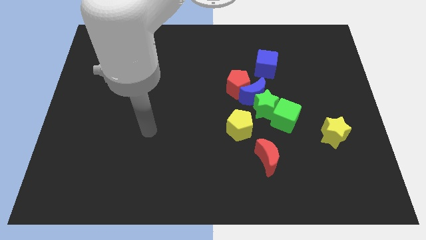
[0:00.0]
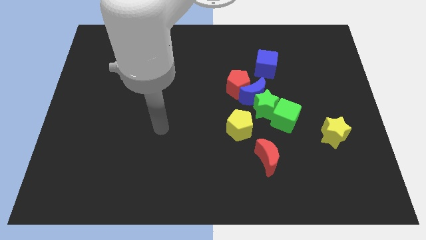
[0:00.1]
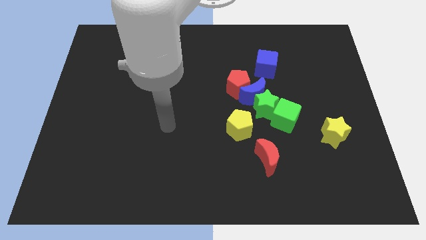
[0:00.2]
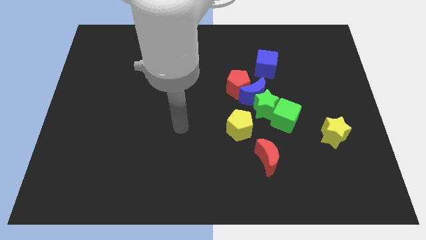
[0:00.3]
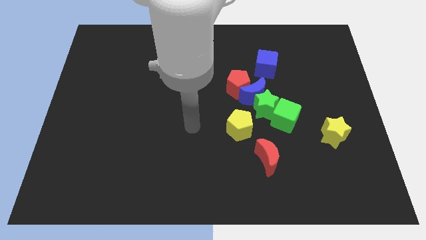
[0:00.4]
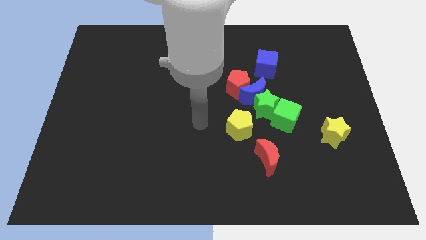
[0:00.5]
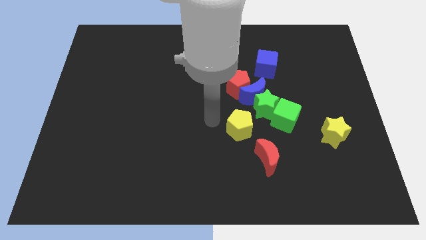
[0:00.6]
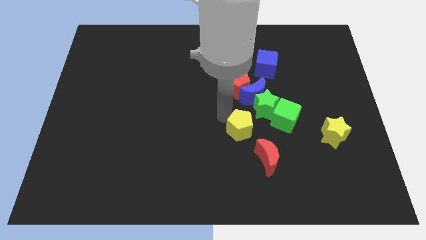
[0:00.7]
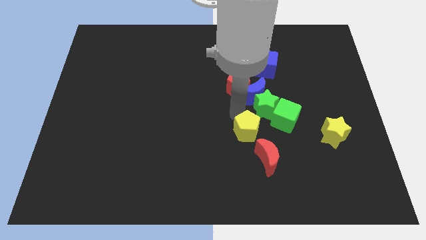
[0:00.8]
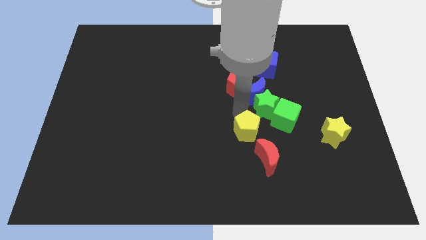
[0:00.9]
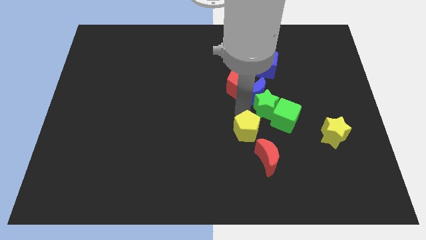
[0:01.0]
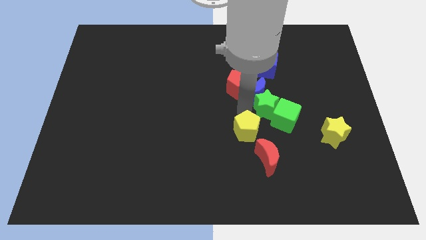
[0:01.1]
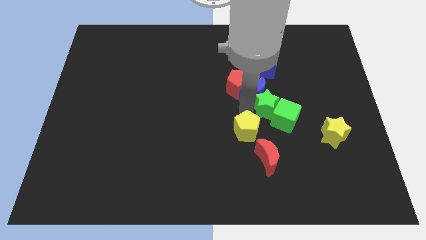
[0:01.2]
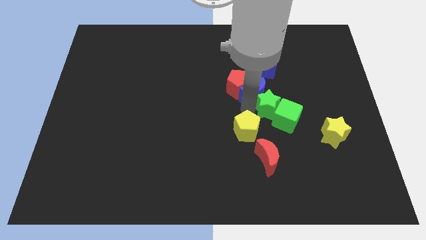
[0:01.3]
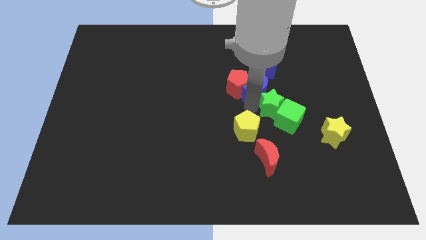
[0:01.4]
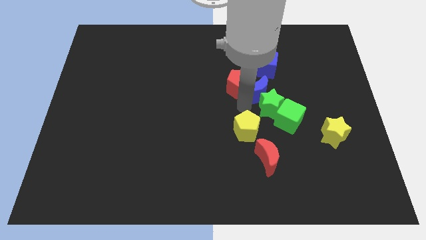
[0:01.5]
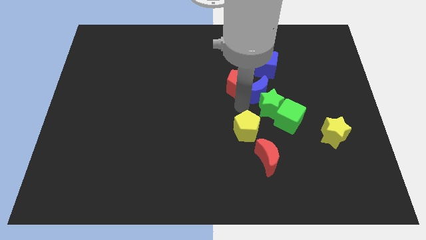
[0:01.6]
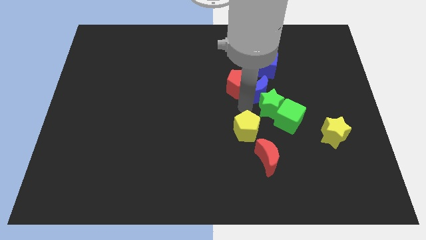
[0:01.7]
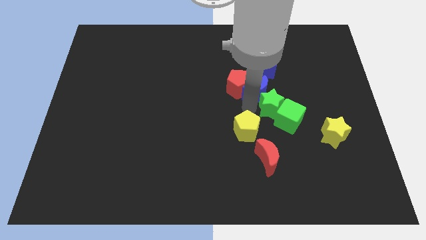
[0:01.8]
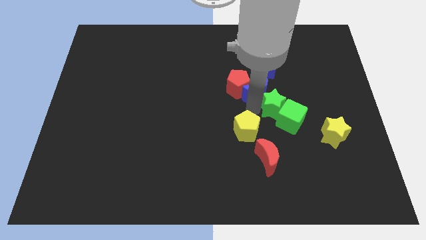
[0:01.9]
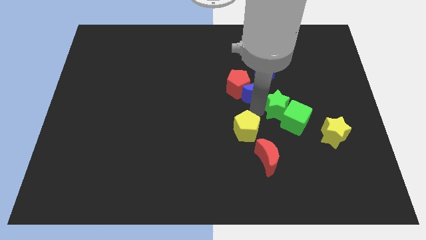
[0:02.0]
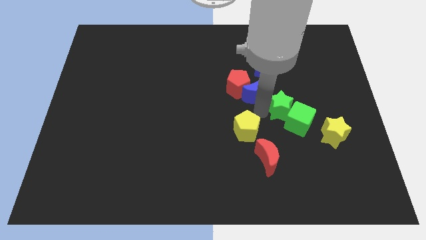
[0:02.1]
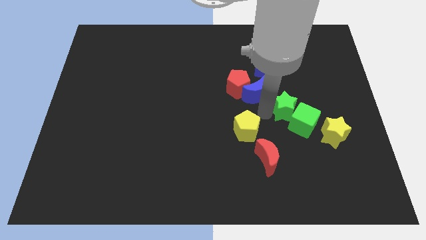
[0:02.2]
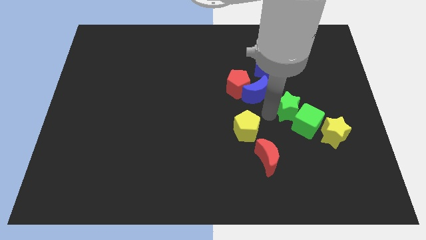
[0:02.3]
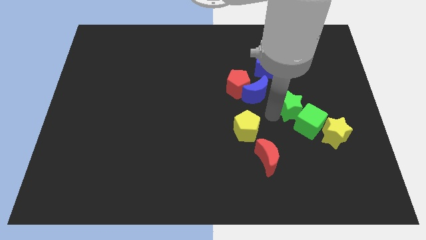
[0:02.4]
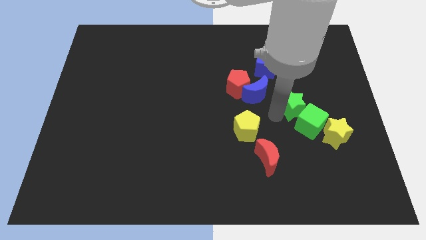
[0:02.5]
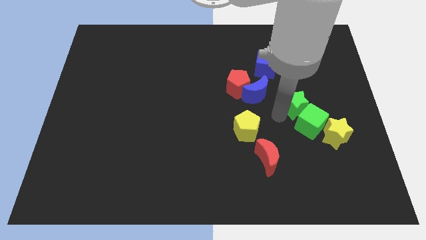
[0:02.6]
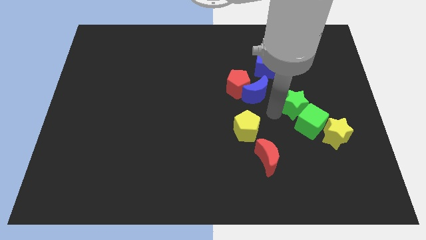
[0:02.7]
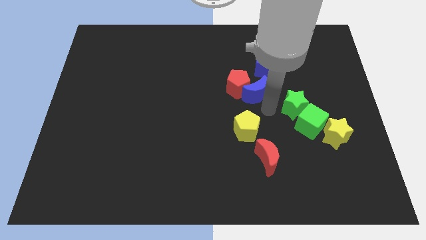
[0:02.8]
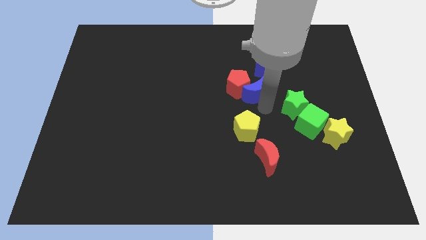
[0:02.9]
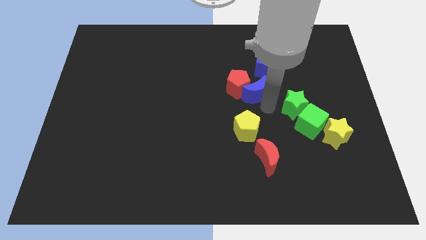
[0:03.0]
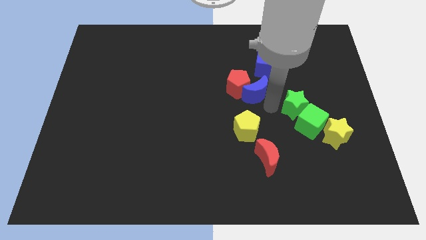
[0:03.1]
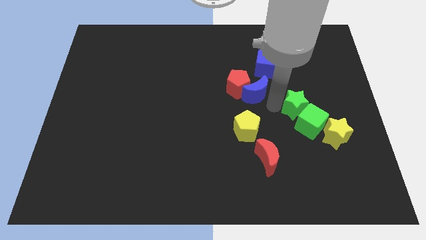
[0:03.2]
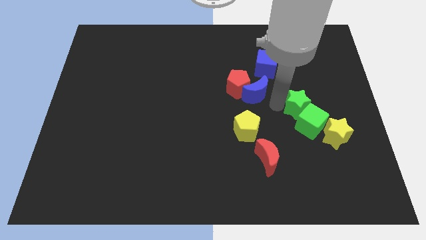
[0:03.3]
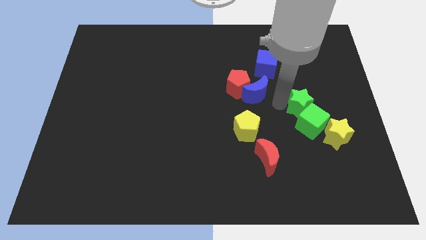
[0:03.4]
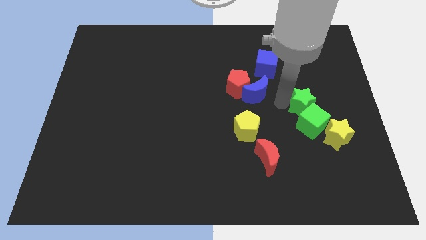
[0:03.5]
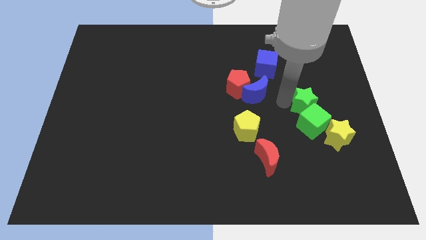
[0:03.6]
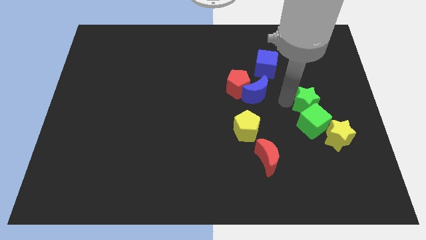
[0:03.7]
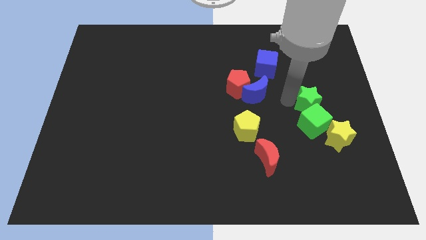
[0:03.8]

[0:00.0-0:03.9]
move the green star away from the clump

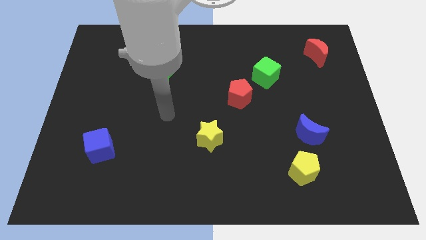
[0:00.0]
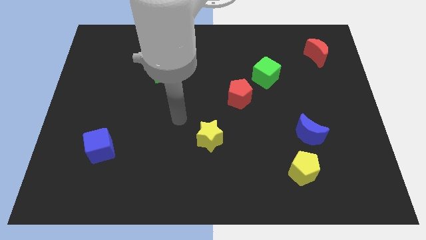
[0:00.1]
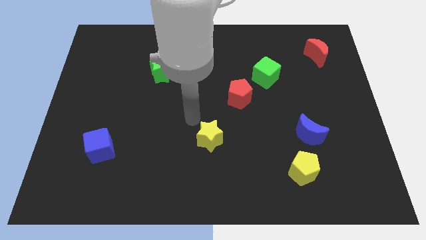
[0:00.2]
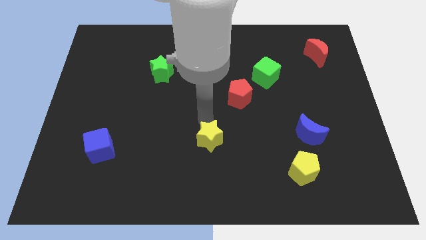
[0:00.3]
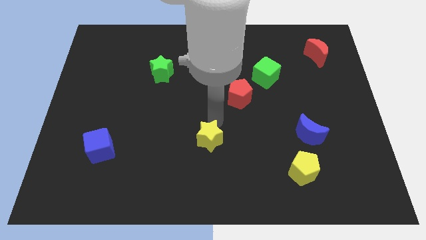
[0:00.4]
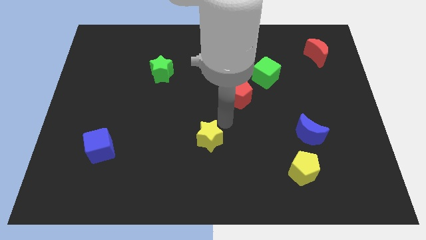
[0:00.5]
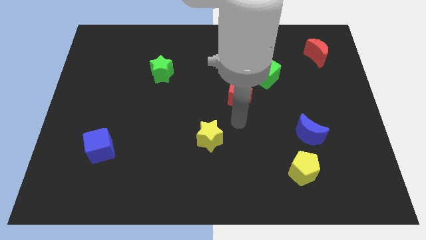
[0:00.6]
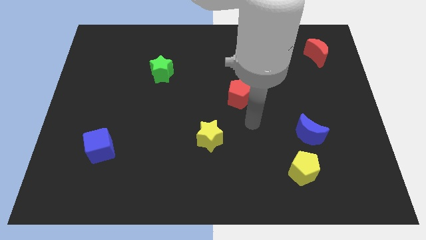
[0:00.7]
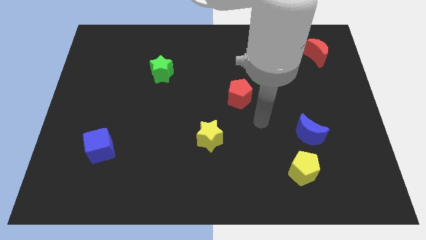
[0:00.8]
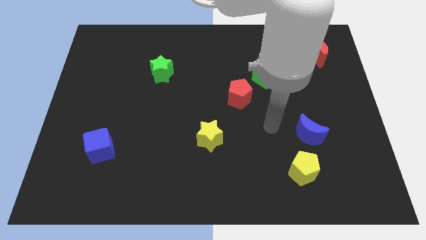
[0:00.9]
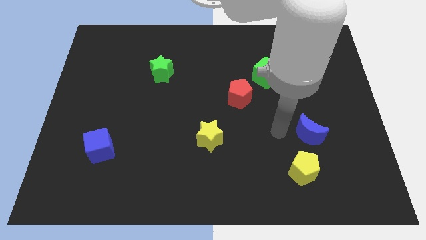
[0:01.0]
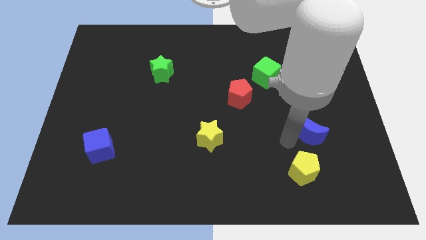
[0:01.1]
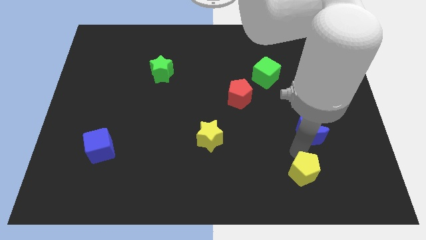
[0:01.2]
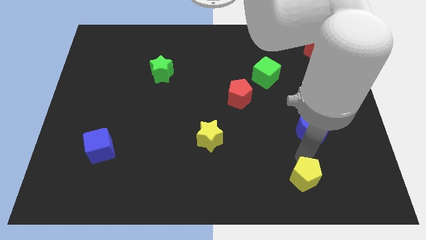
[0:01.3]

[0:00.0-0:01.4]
pull the blue moon apart from the yellow pentagon

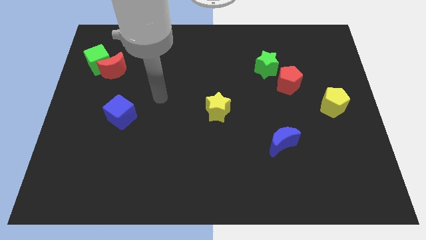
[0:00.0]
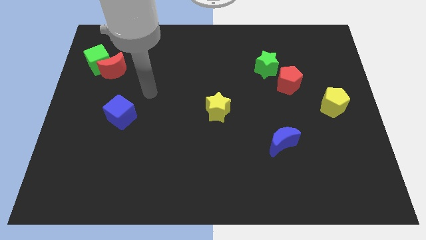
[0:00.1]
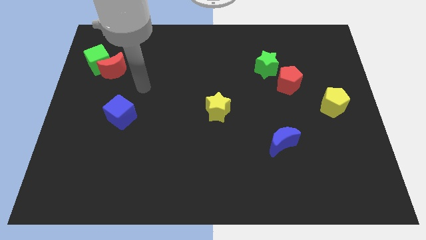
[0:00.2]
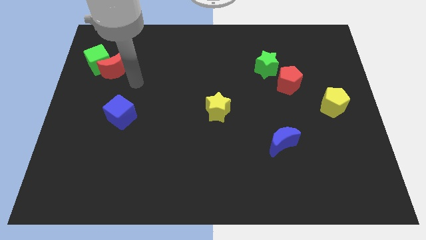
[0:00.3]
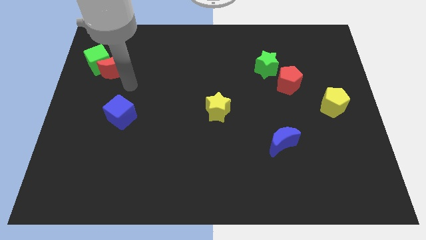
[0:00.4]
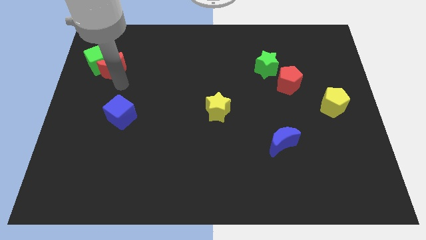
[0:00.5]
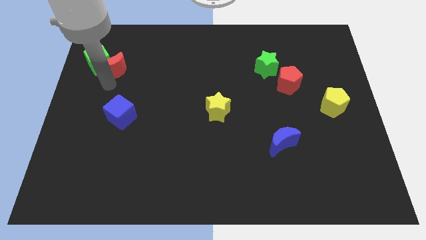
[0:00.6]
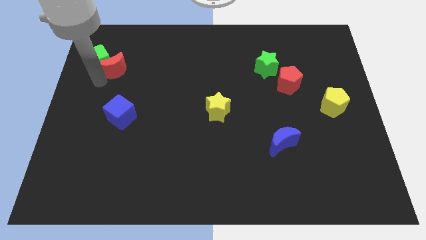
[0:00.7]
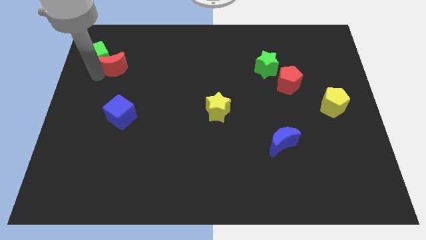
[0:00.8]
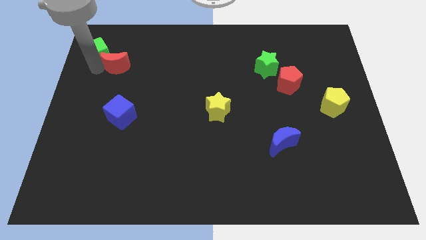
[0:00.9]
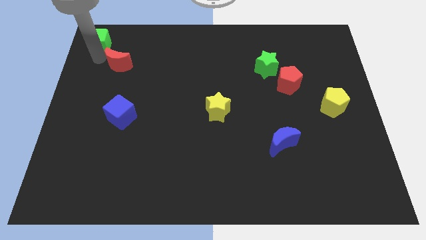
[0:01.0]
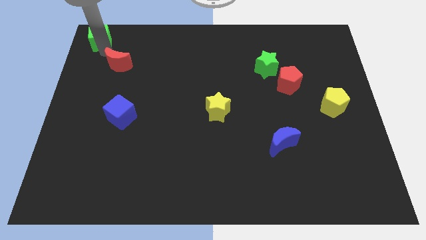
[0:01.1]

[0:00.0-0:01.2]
move the red moon away from the green cube

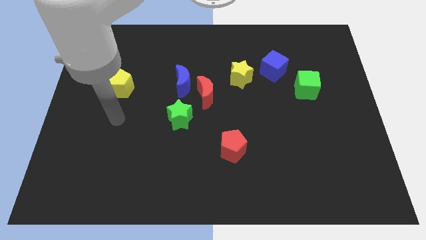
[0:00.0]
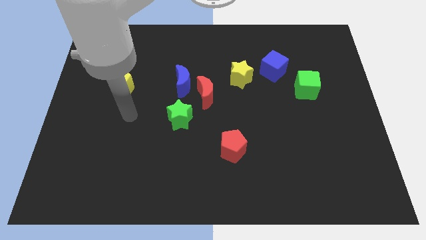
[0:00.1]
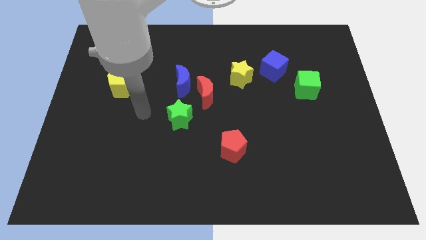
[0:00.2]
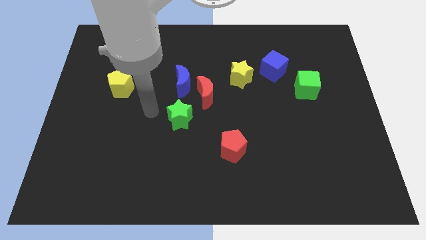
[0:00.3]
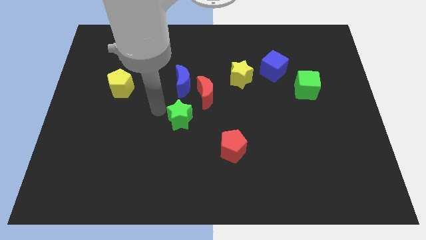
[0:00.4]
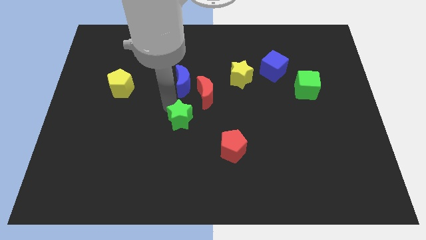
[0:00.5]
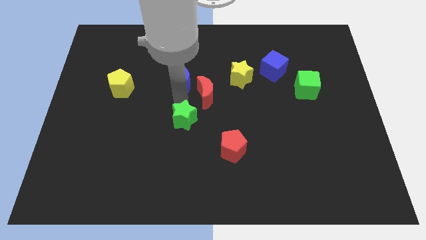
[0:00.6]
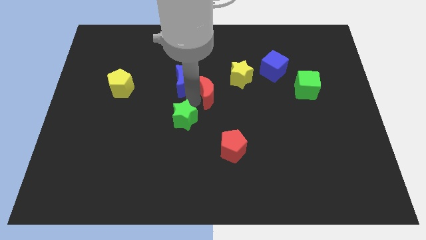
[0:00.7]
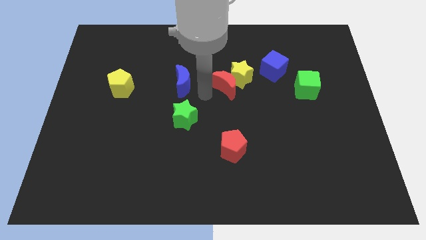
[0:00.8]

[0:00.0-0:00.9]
move the blue moon away from the red moon

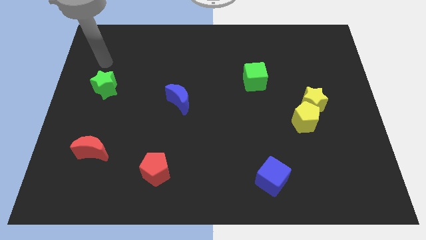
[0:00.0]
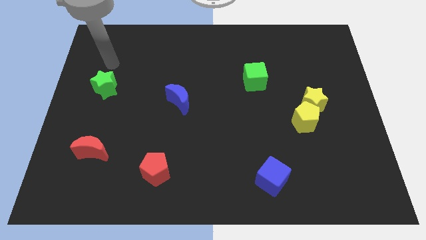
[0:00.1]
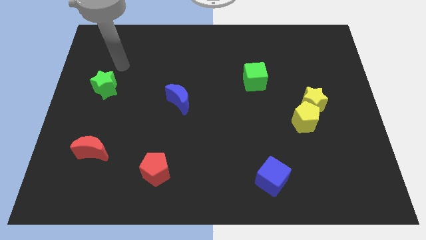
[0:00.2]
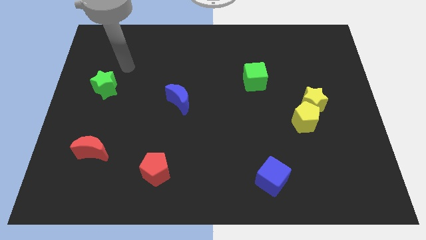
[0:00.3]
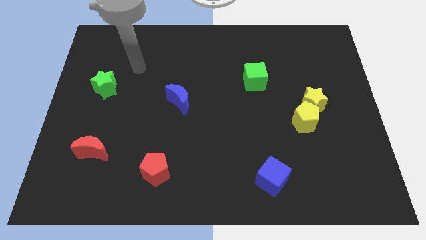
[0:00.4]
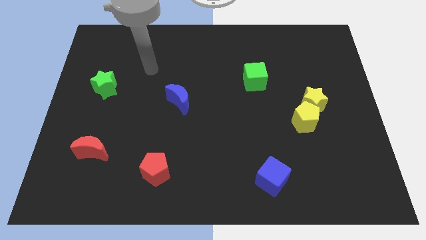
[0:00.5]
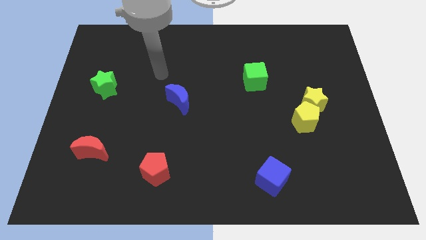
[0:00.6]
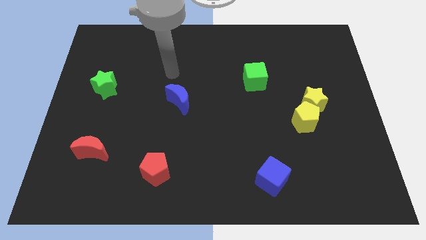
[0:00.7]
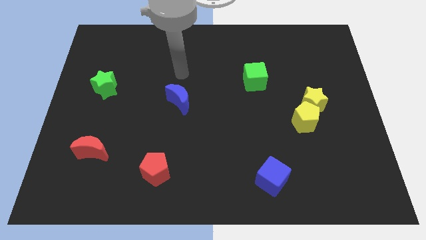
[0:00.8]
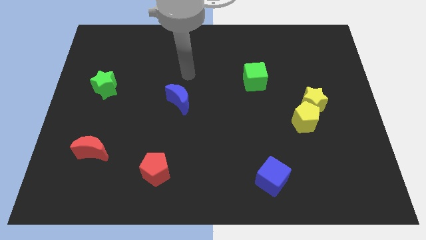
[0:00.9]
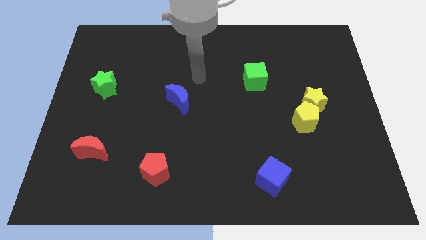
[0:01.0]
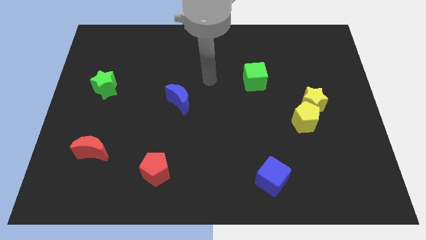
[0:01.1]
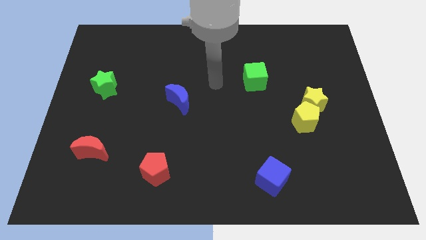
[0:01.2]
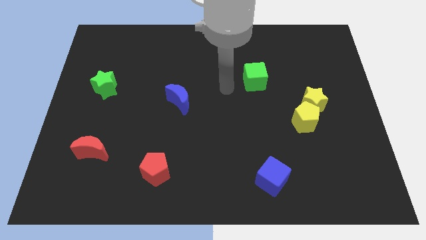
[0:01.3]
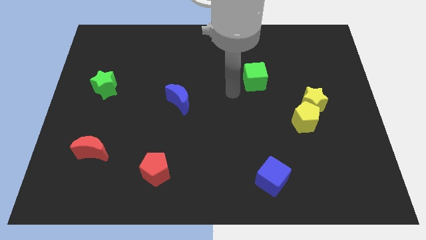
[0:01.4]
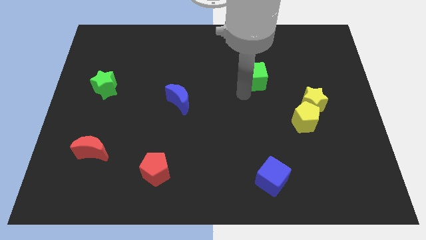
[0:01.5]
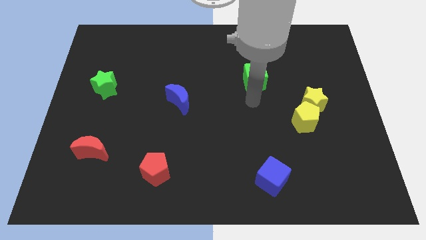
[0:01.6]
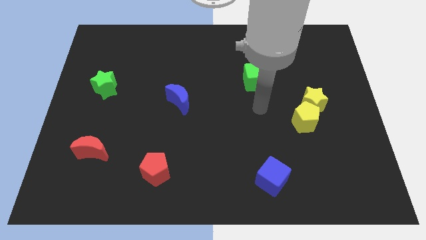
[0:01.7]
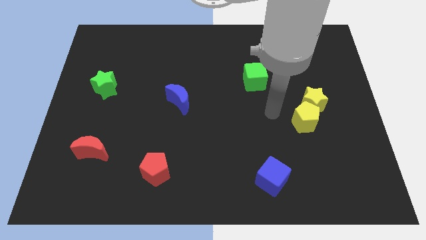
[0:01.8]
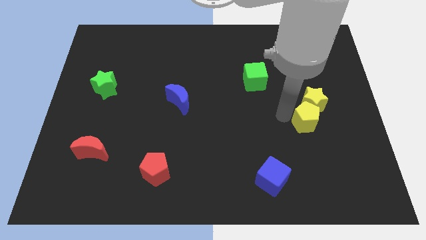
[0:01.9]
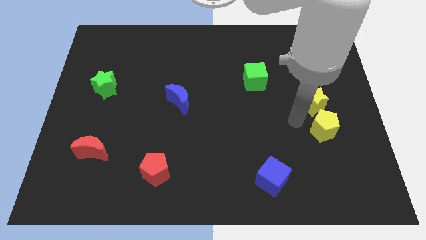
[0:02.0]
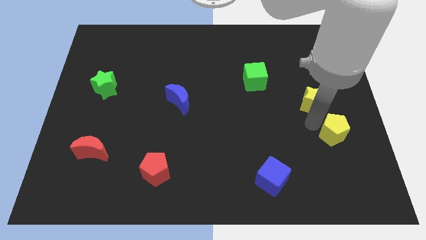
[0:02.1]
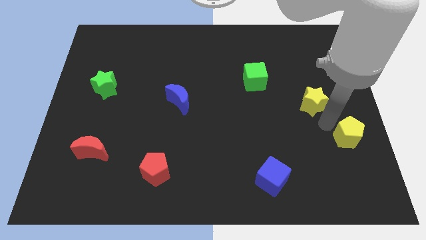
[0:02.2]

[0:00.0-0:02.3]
move the yellow star away from the yellow pentagon
